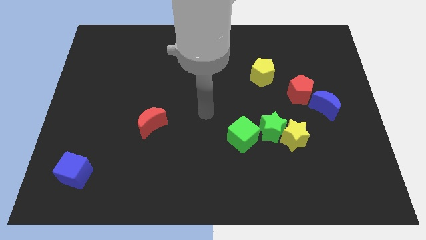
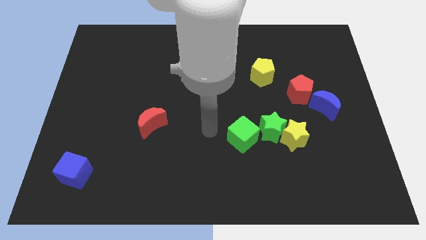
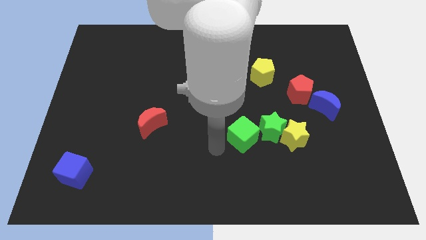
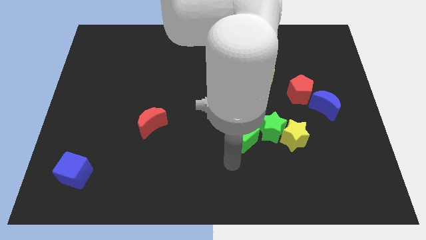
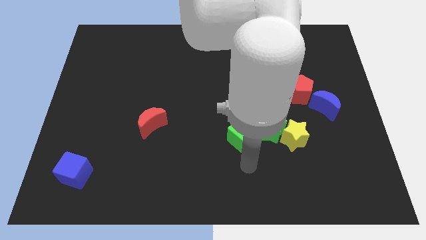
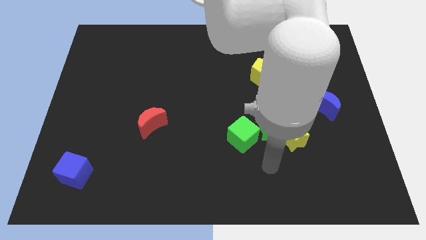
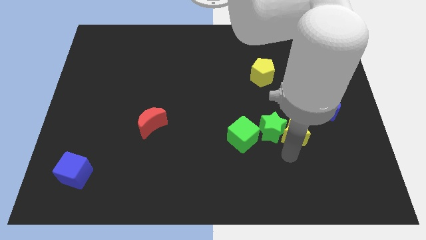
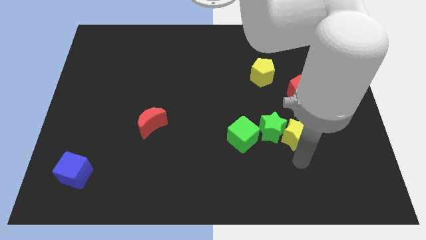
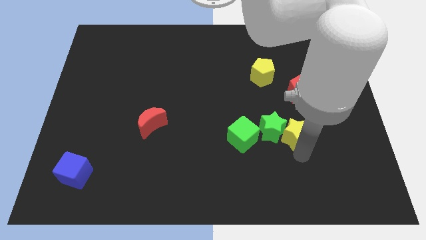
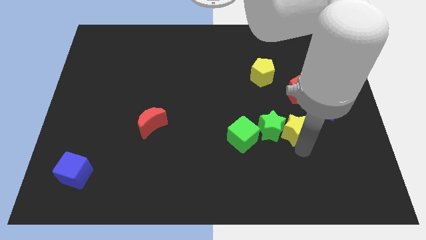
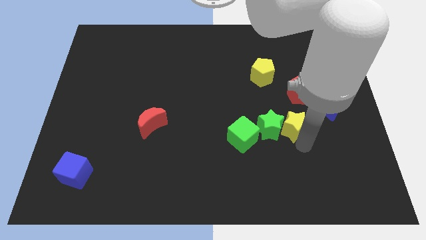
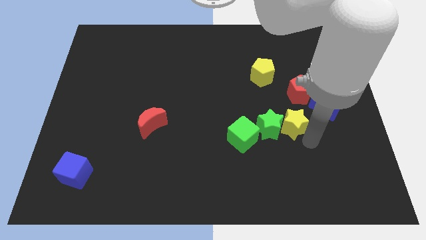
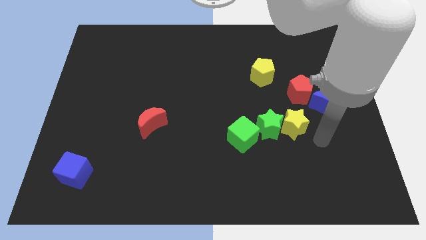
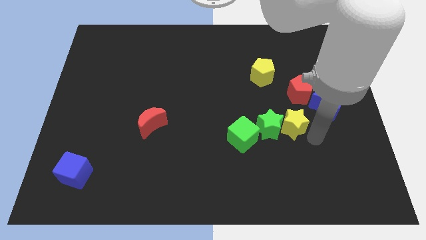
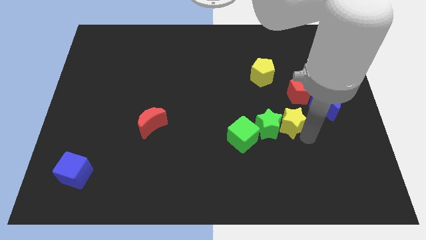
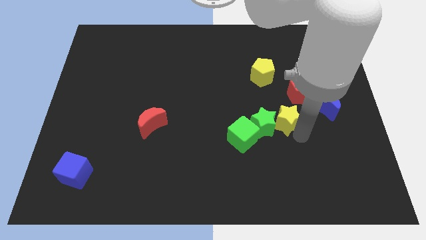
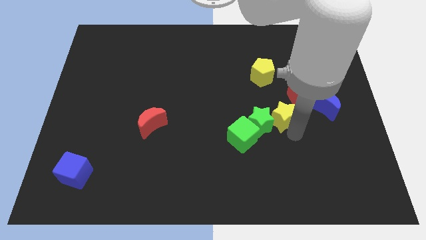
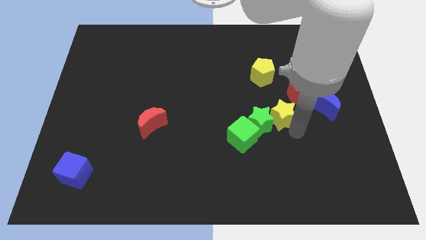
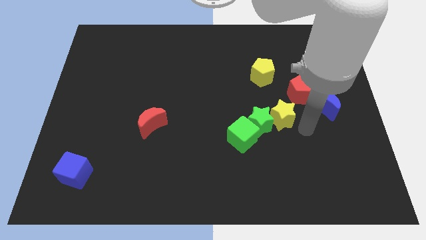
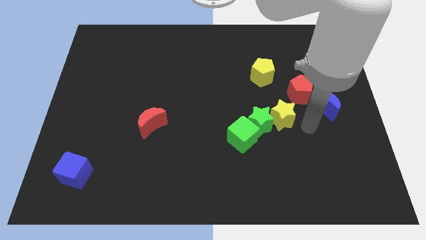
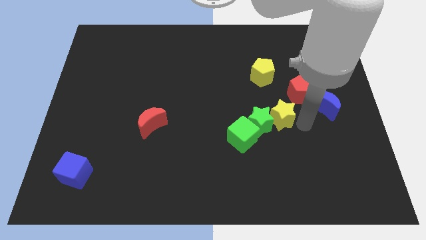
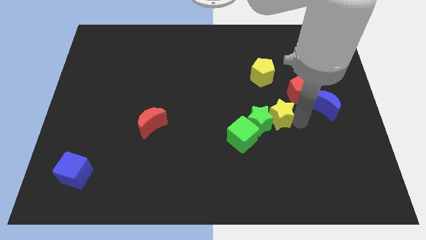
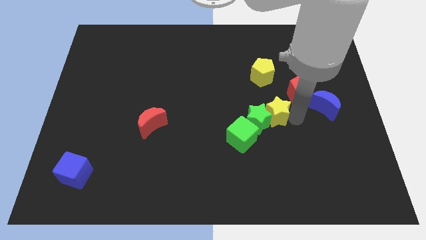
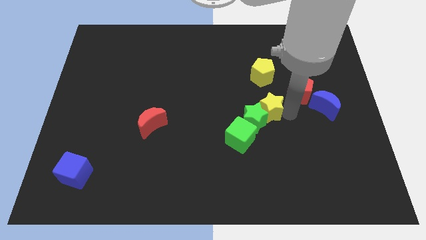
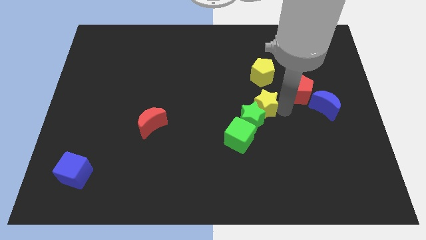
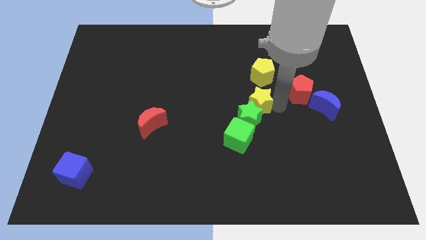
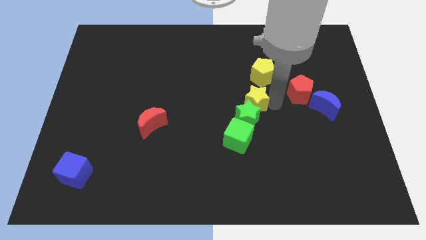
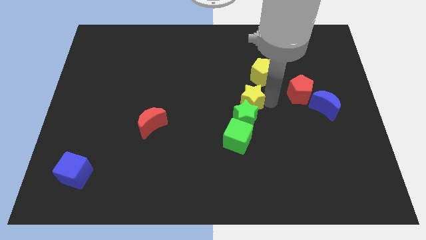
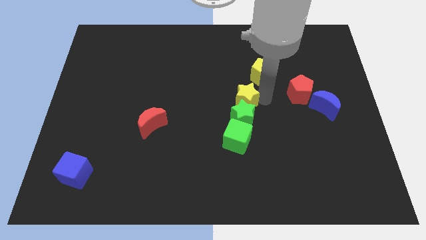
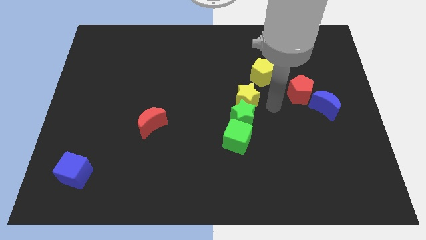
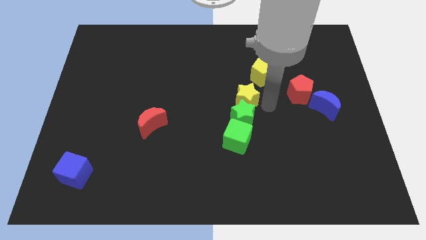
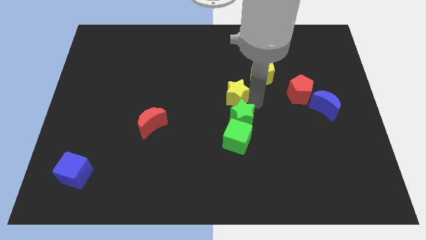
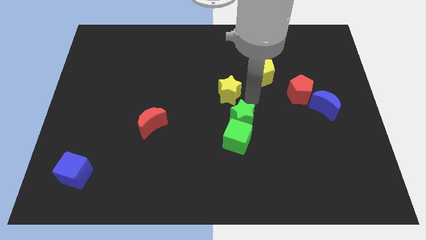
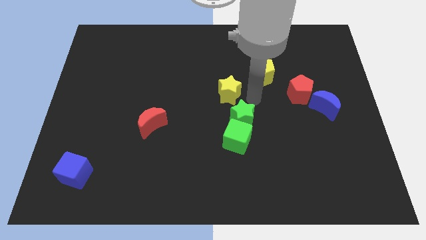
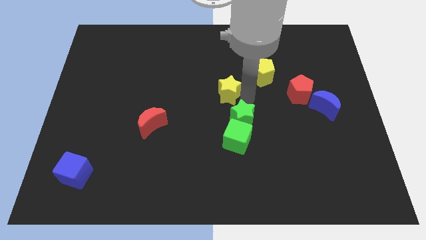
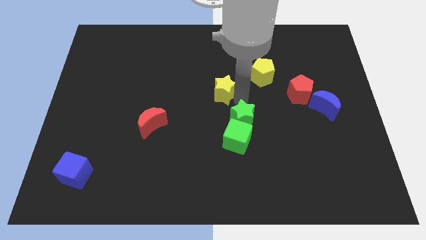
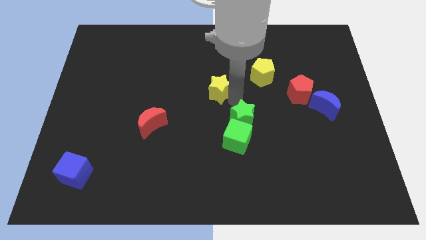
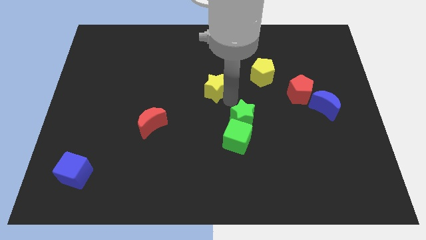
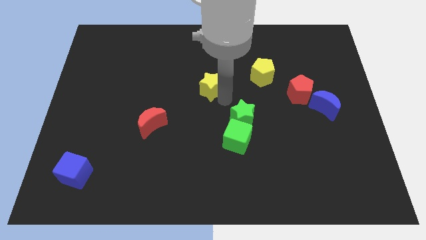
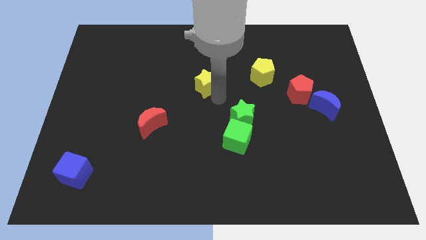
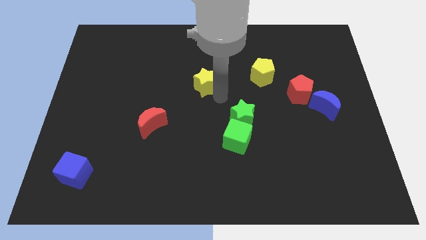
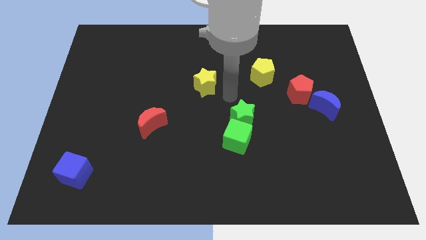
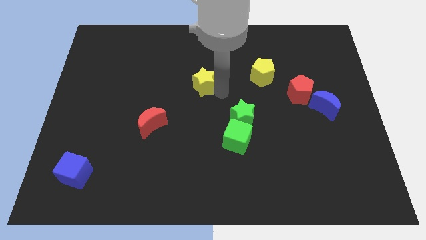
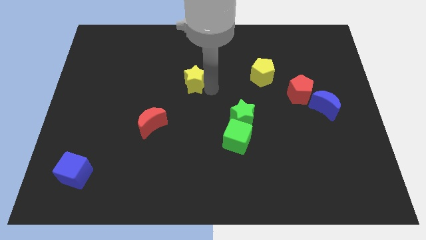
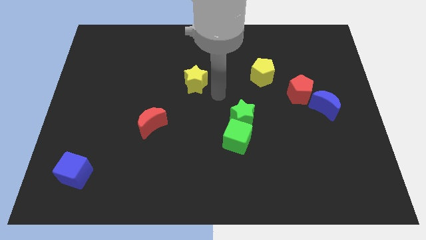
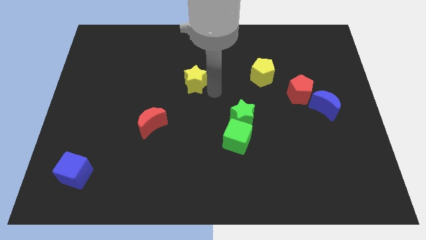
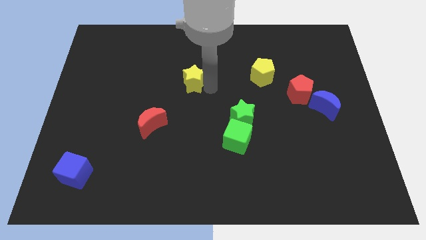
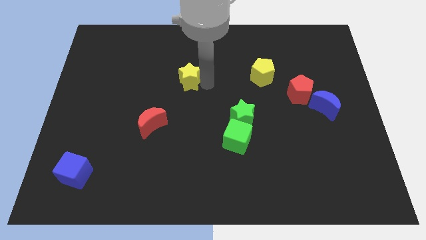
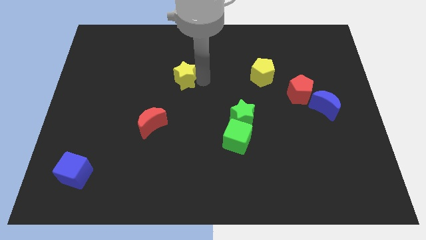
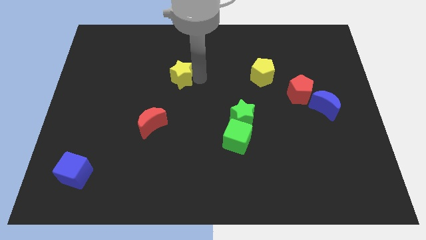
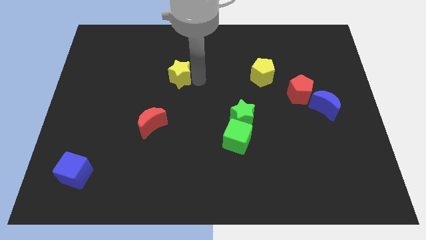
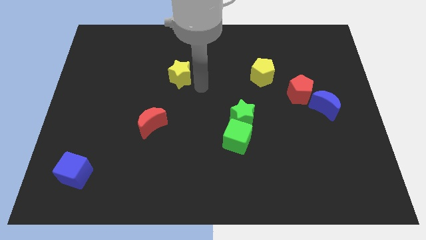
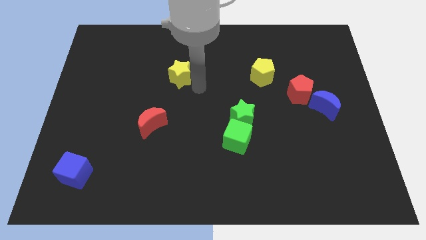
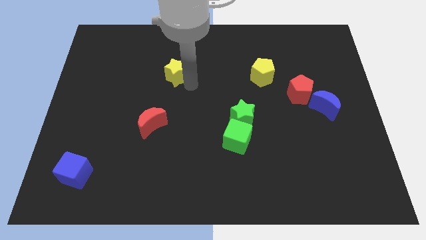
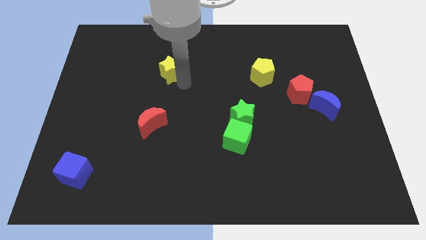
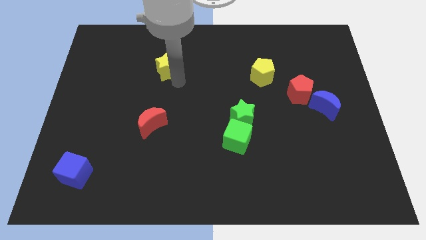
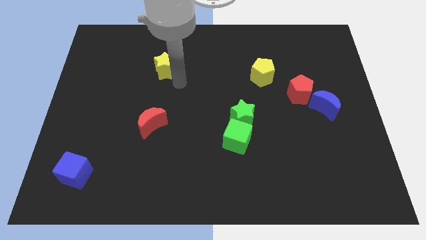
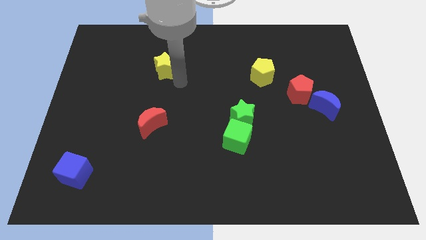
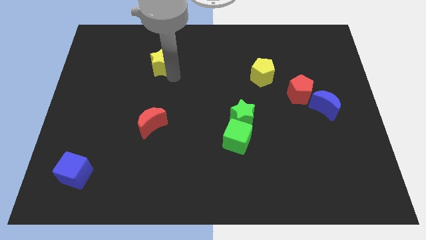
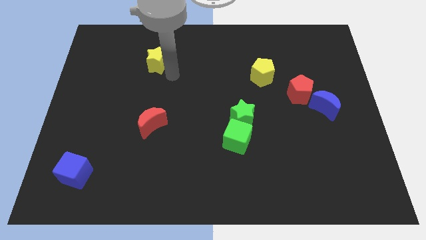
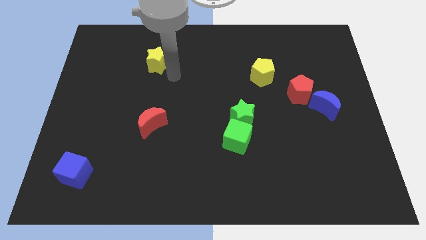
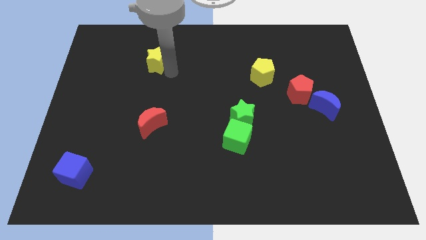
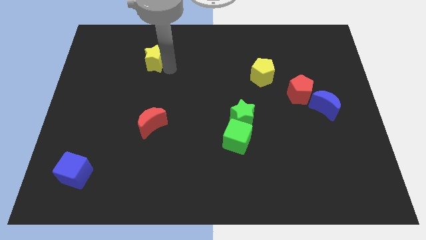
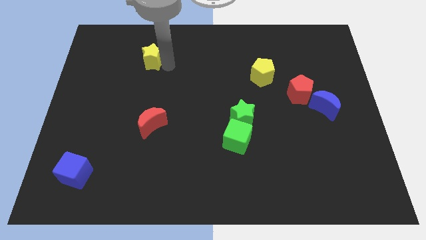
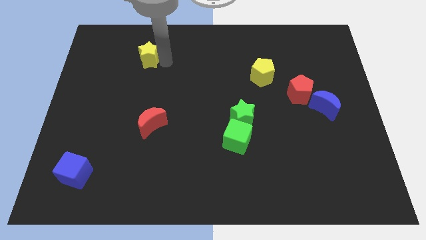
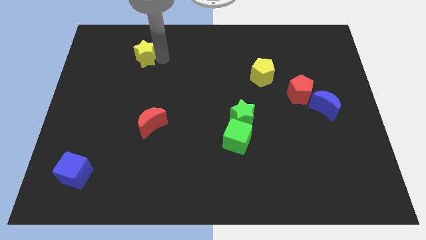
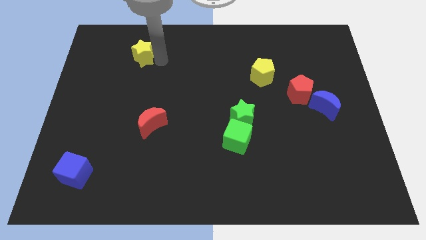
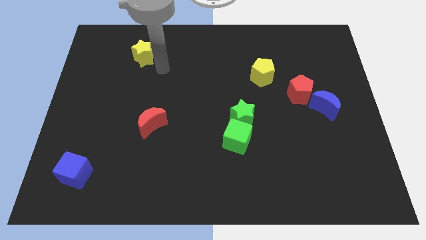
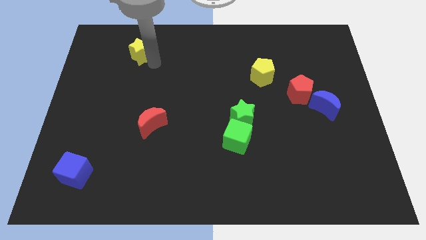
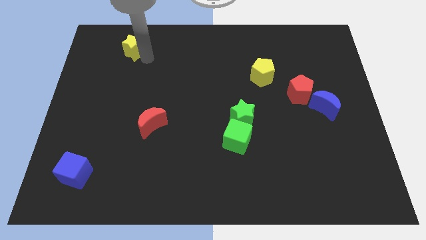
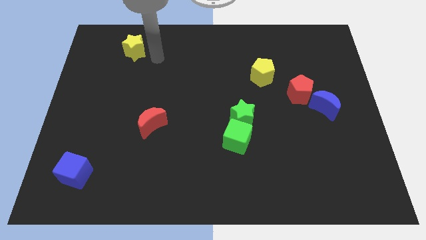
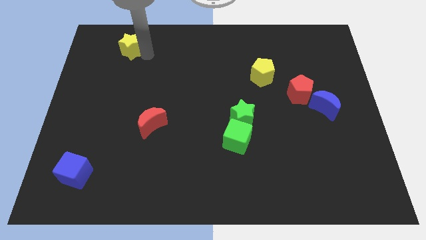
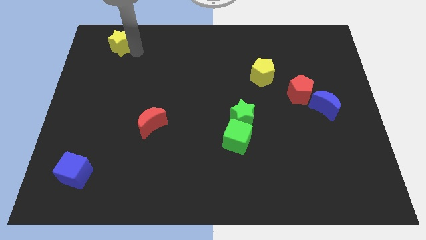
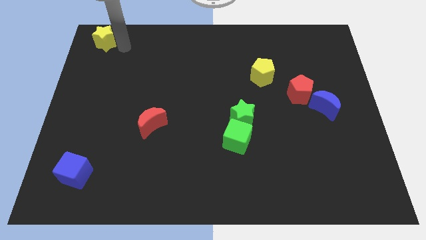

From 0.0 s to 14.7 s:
put the yellow star to the upper left corner

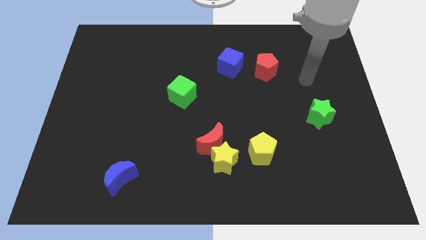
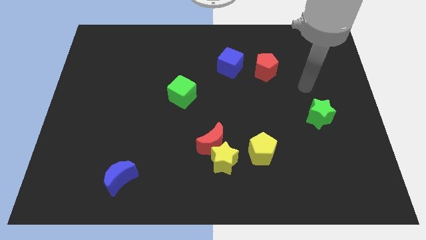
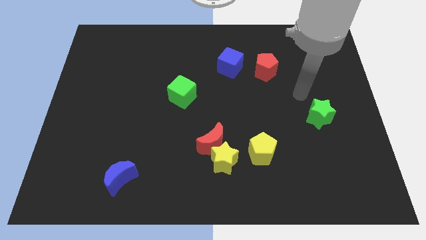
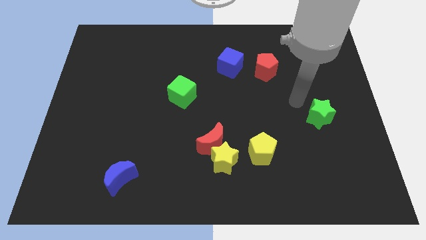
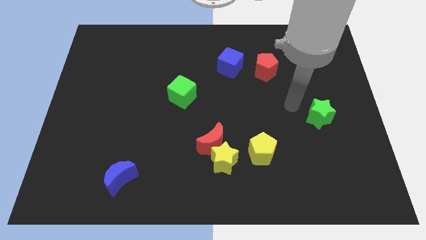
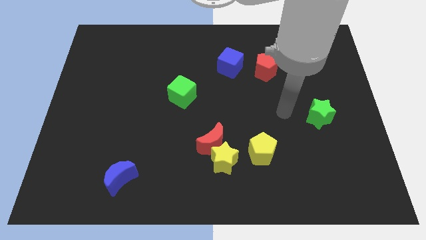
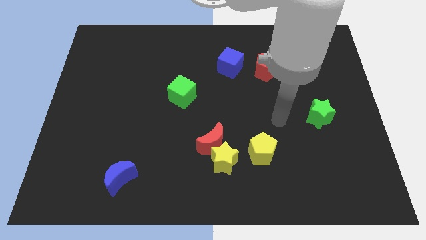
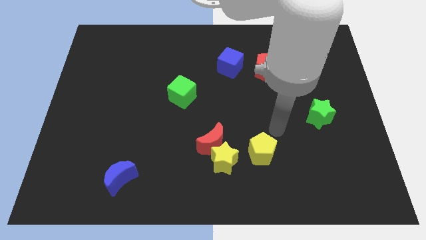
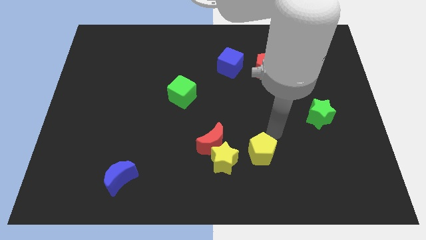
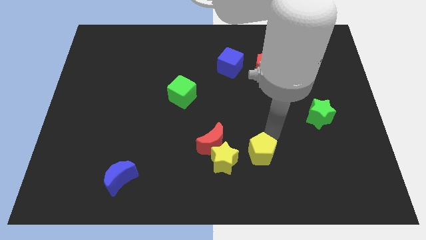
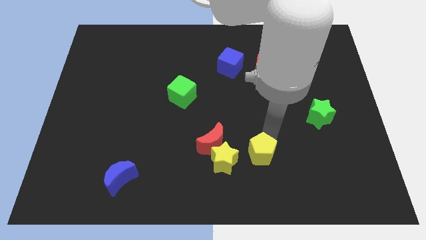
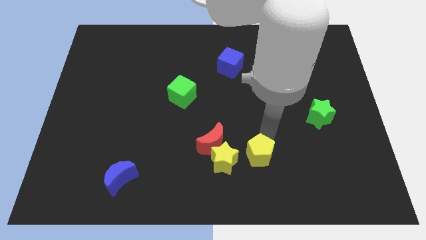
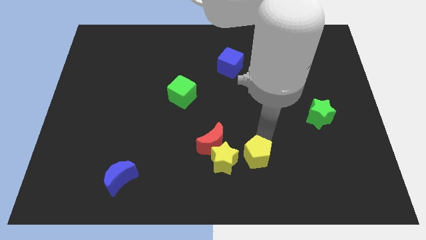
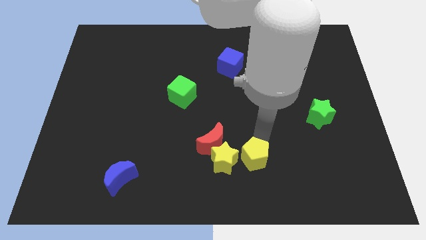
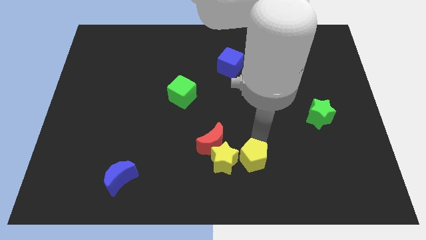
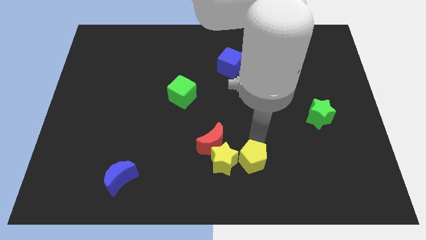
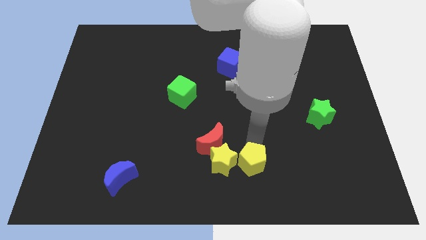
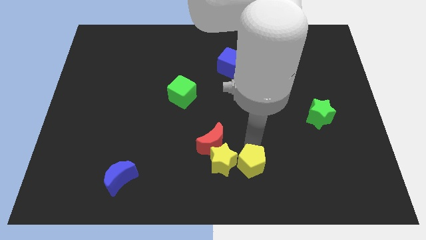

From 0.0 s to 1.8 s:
push the yellow pentagon to the bottom side
